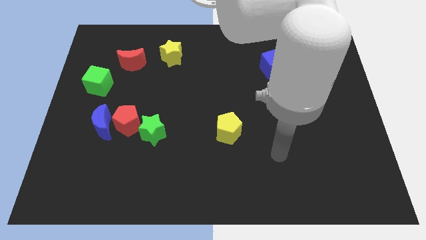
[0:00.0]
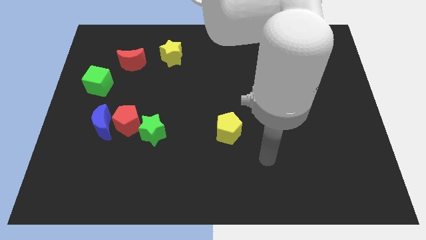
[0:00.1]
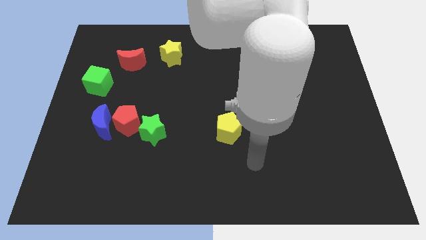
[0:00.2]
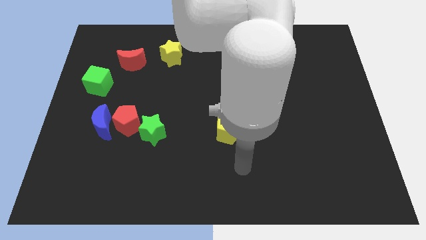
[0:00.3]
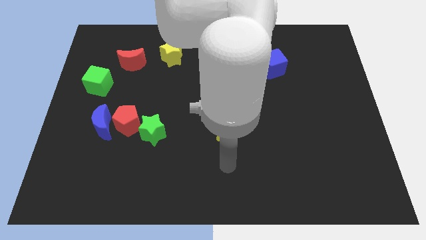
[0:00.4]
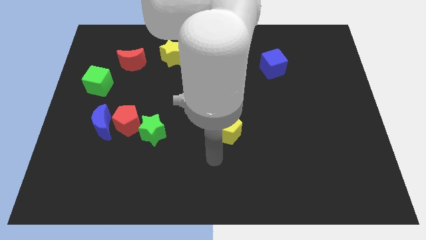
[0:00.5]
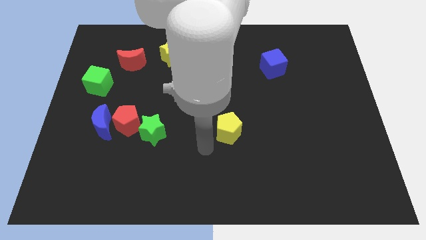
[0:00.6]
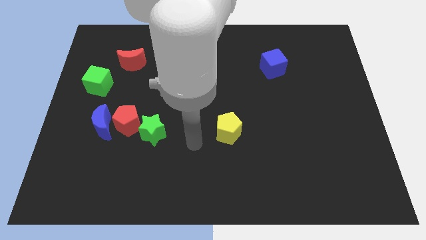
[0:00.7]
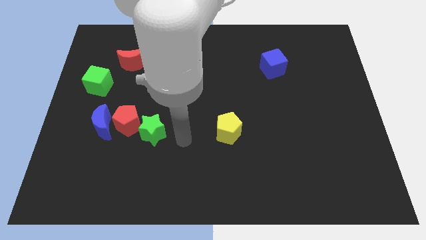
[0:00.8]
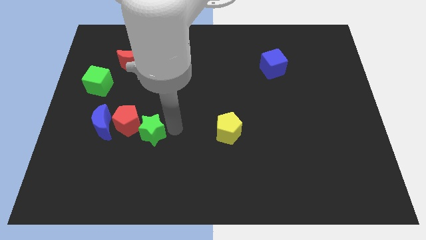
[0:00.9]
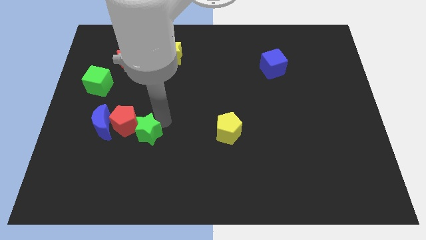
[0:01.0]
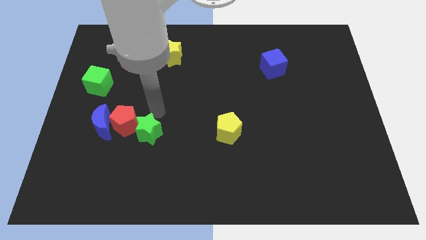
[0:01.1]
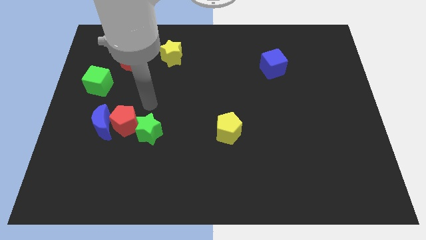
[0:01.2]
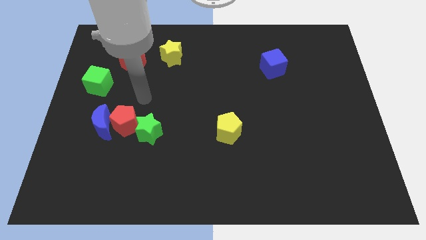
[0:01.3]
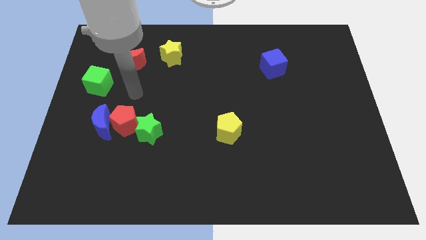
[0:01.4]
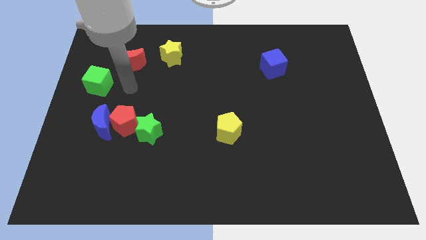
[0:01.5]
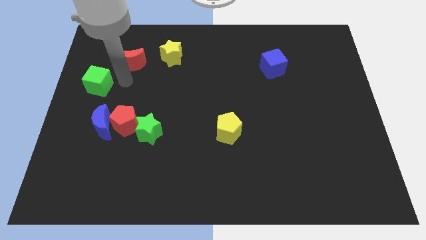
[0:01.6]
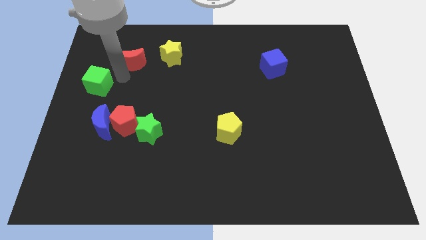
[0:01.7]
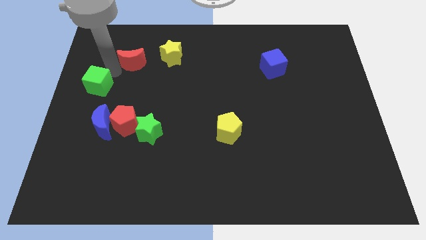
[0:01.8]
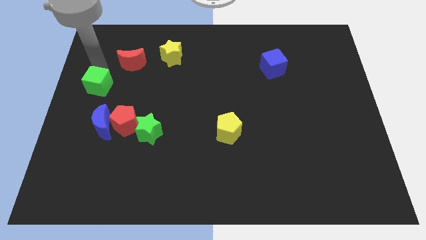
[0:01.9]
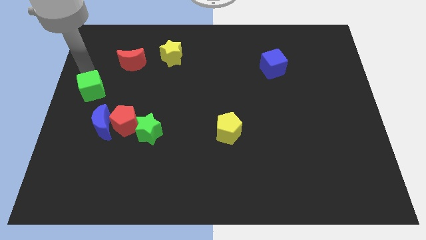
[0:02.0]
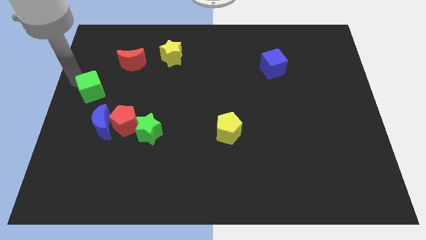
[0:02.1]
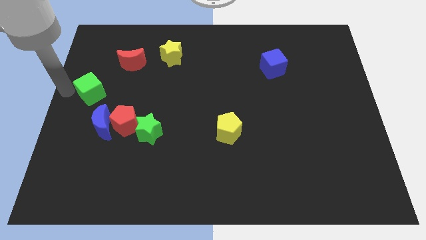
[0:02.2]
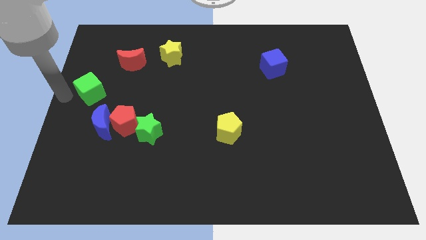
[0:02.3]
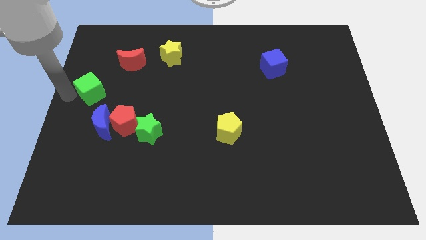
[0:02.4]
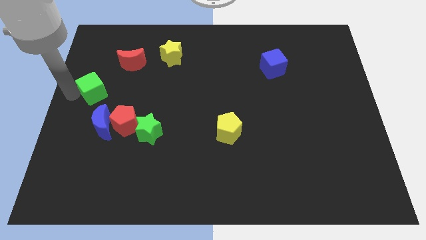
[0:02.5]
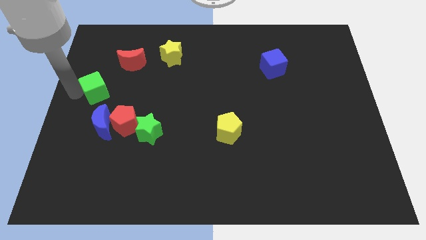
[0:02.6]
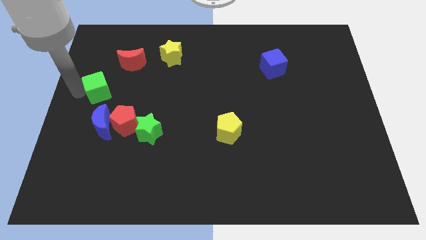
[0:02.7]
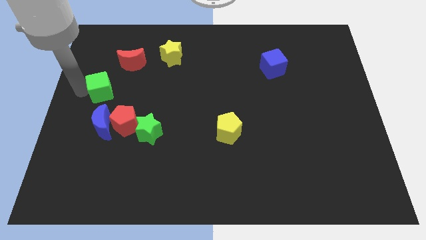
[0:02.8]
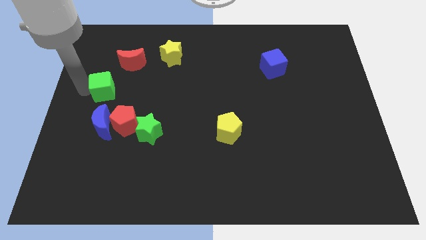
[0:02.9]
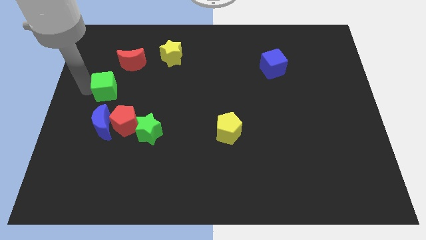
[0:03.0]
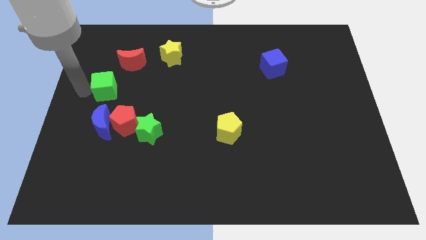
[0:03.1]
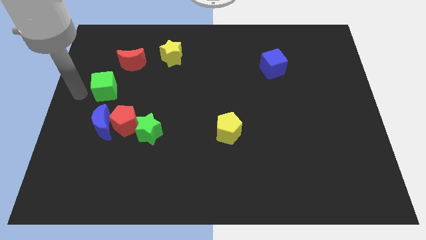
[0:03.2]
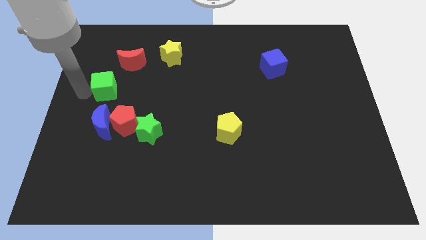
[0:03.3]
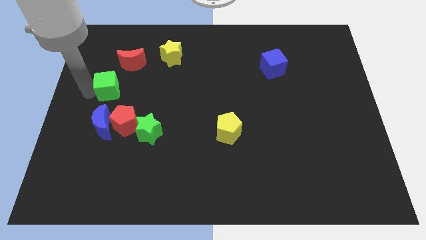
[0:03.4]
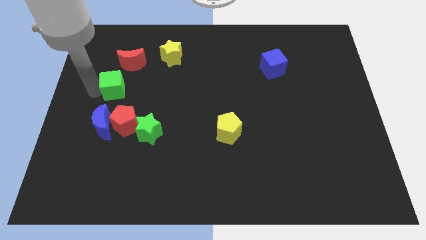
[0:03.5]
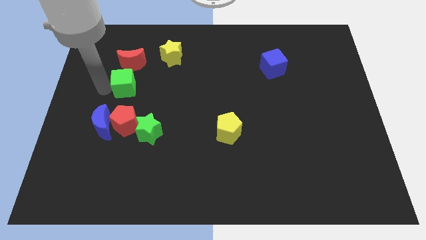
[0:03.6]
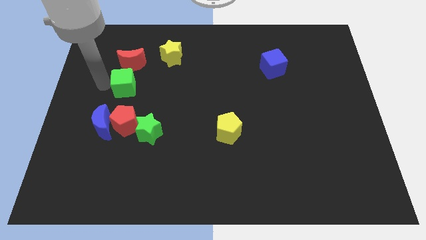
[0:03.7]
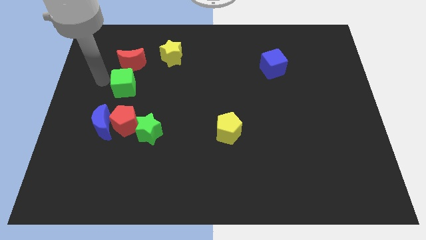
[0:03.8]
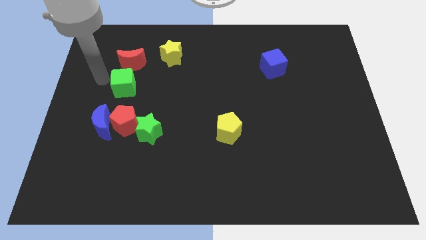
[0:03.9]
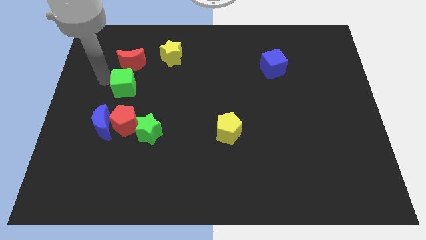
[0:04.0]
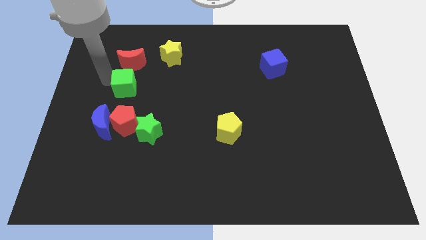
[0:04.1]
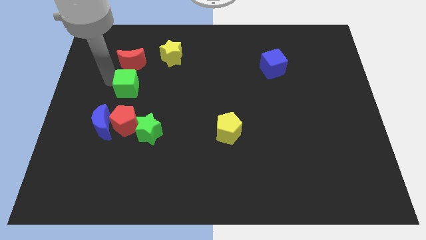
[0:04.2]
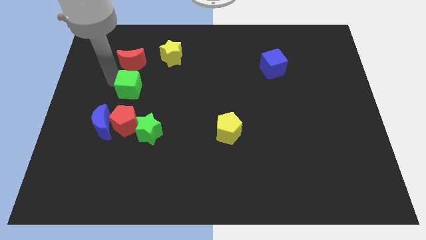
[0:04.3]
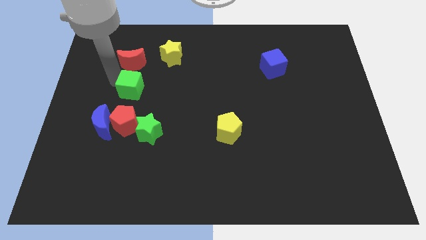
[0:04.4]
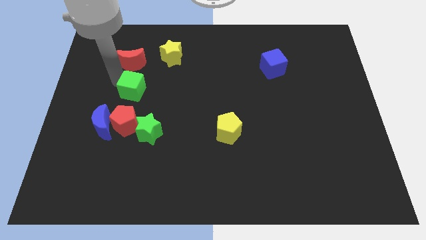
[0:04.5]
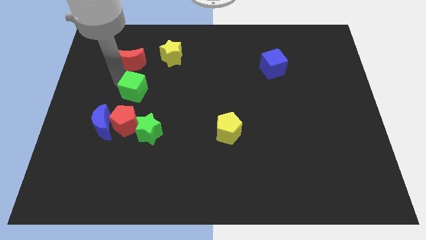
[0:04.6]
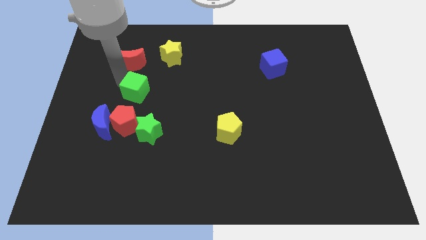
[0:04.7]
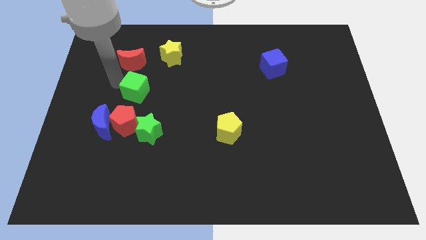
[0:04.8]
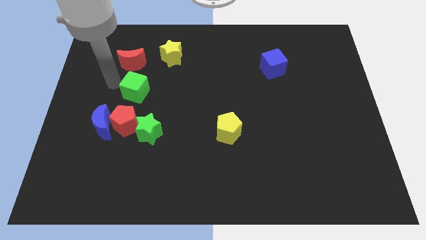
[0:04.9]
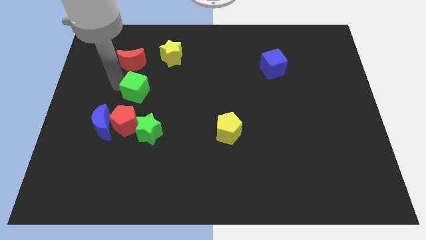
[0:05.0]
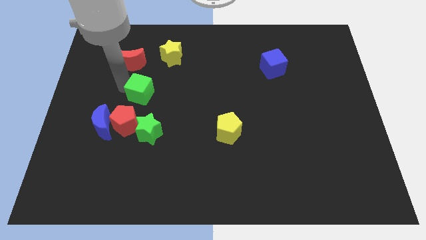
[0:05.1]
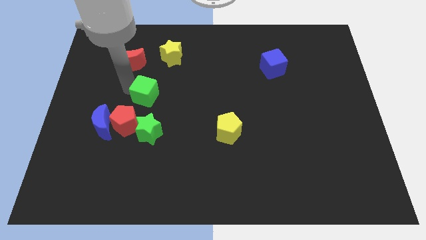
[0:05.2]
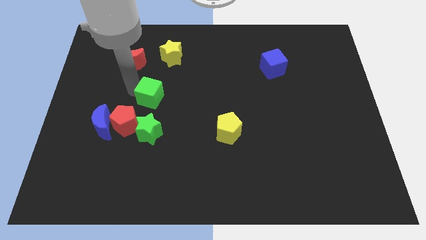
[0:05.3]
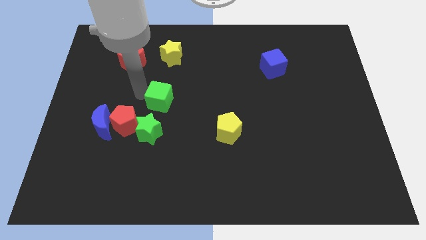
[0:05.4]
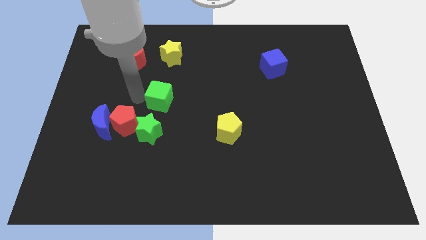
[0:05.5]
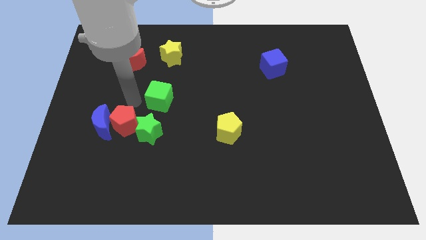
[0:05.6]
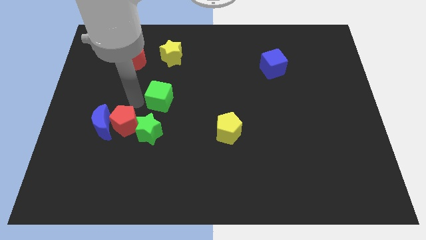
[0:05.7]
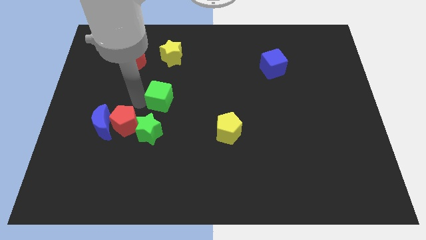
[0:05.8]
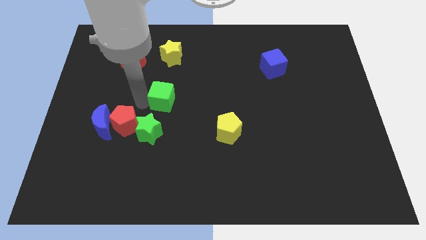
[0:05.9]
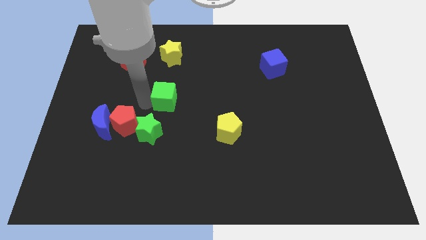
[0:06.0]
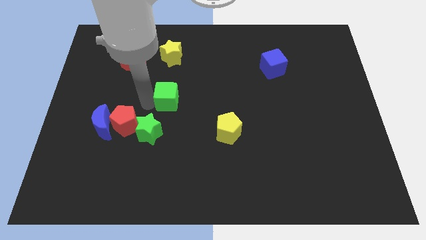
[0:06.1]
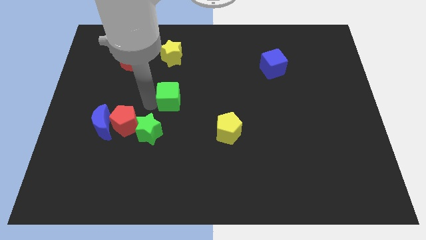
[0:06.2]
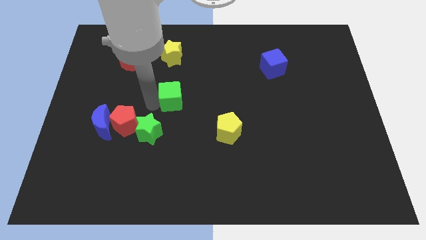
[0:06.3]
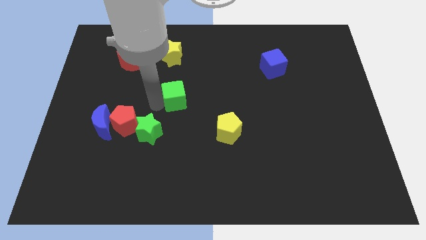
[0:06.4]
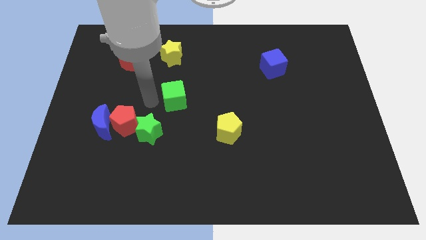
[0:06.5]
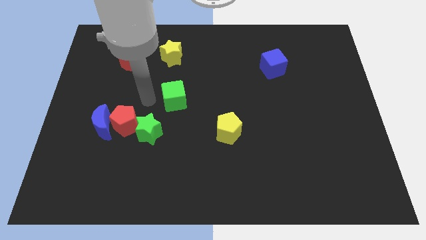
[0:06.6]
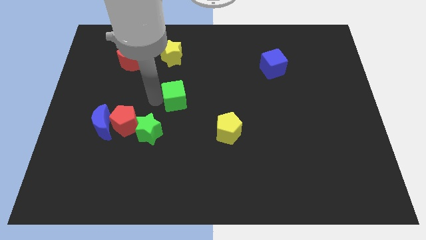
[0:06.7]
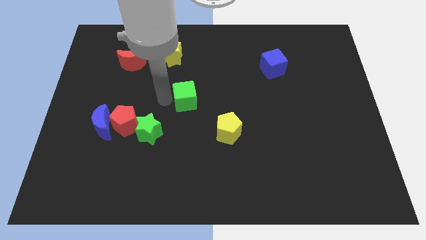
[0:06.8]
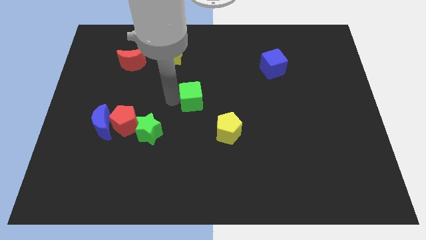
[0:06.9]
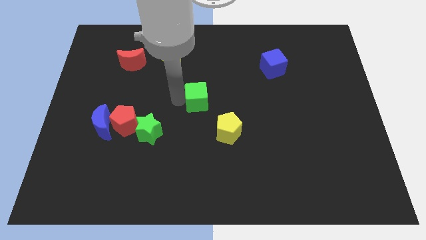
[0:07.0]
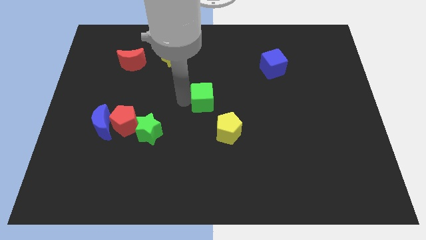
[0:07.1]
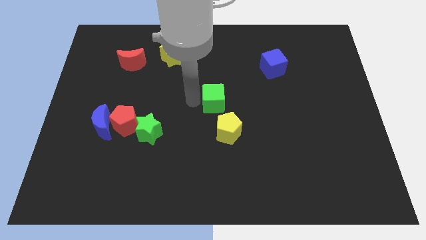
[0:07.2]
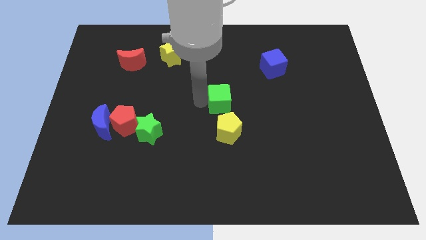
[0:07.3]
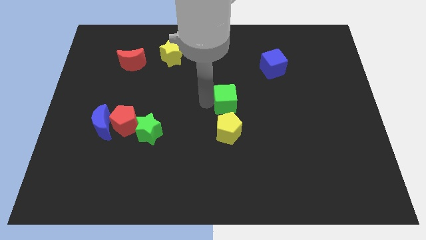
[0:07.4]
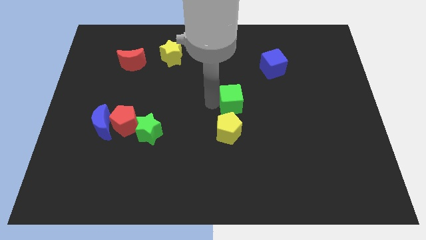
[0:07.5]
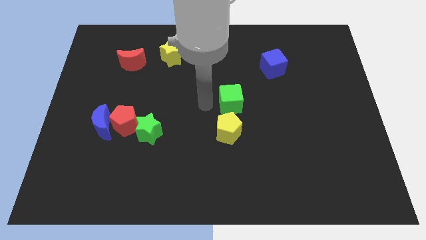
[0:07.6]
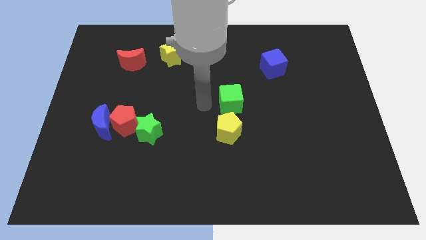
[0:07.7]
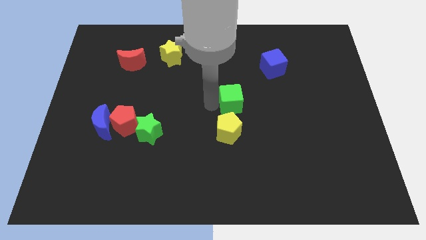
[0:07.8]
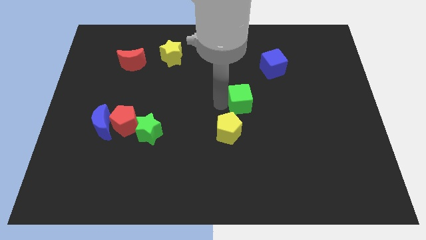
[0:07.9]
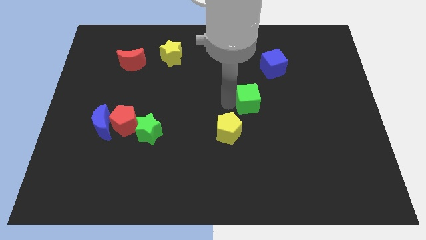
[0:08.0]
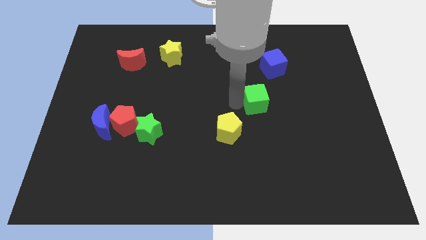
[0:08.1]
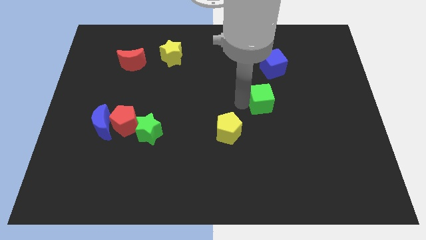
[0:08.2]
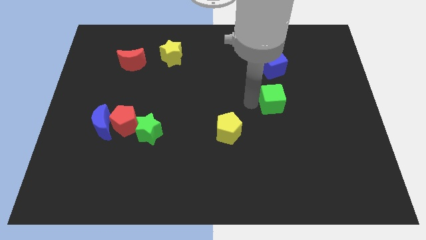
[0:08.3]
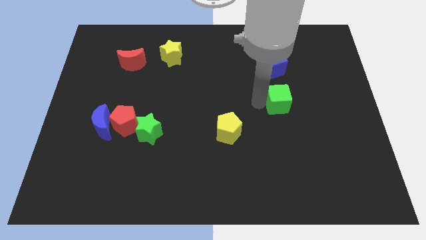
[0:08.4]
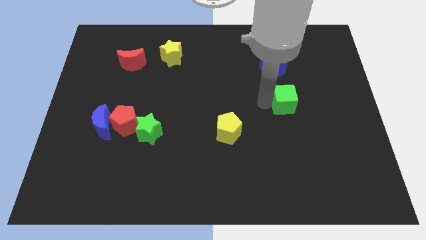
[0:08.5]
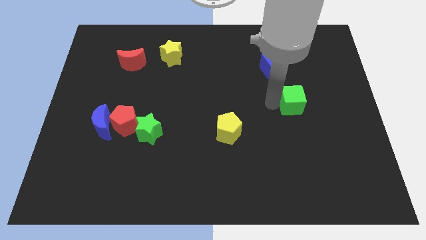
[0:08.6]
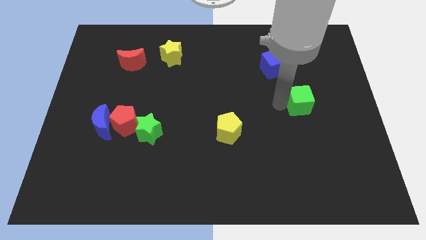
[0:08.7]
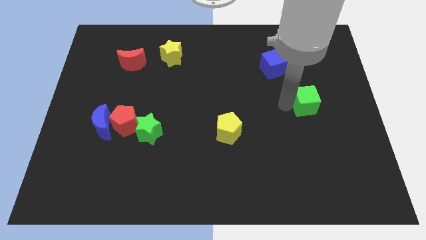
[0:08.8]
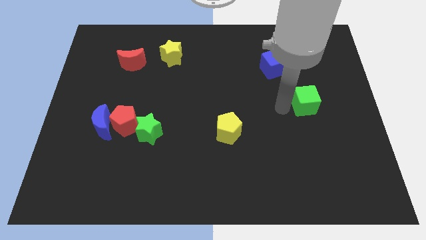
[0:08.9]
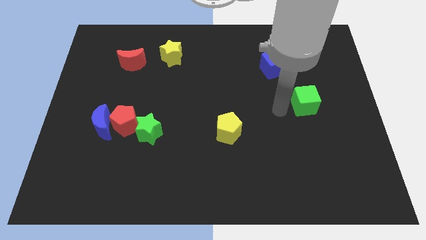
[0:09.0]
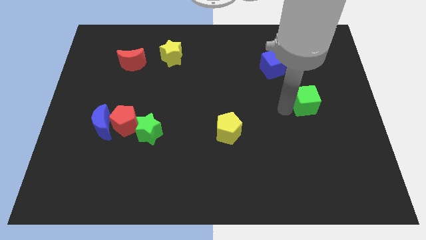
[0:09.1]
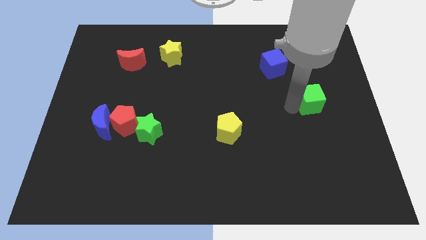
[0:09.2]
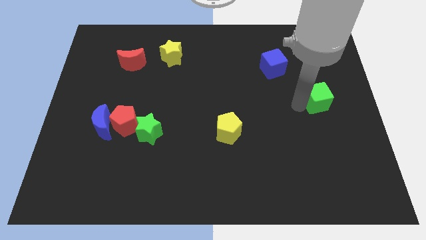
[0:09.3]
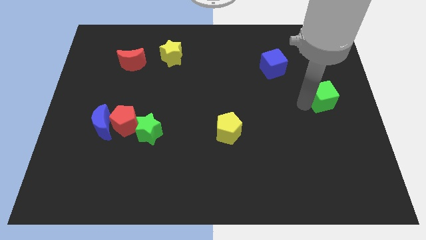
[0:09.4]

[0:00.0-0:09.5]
slide the green cube to the center right
